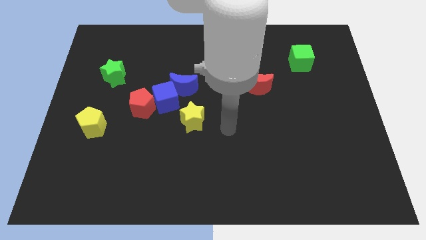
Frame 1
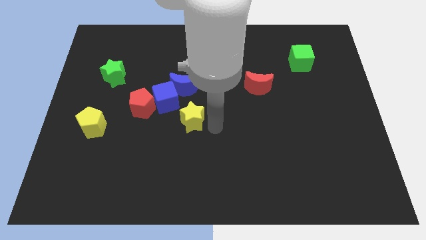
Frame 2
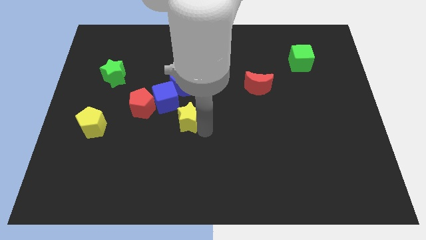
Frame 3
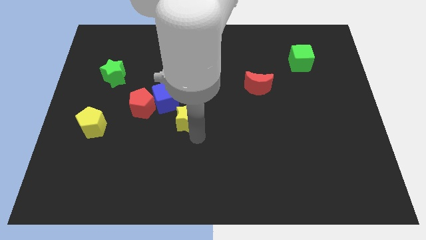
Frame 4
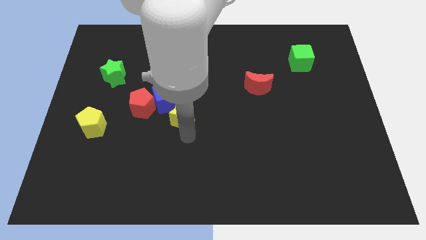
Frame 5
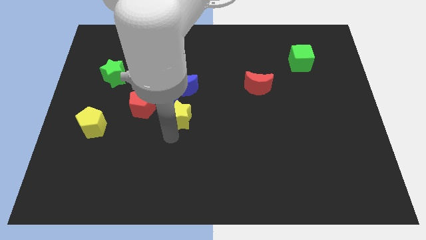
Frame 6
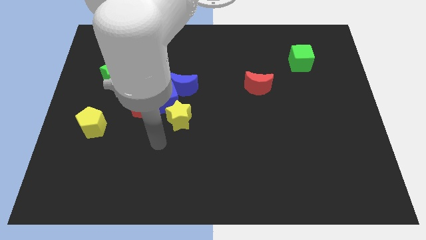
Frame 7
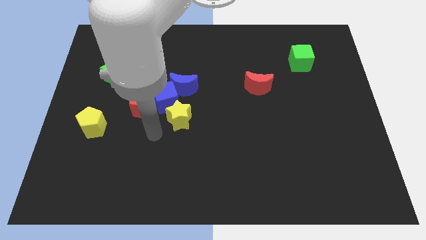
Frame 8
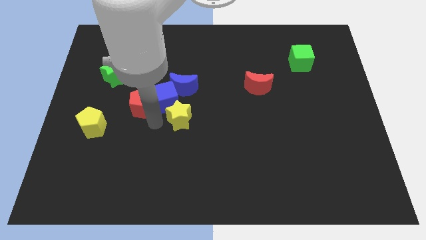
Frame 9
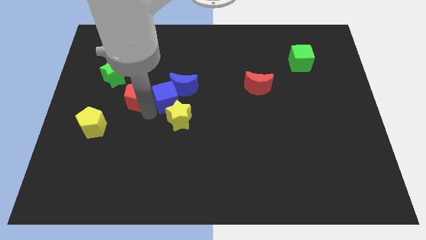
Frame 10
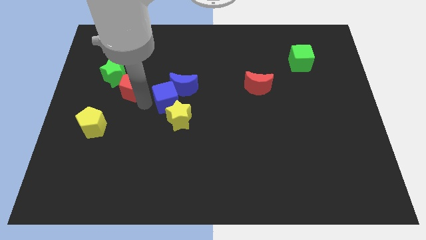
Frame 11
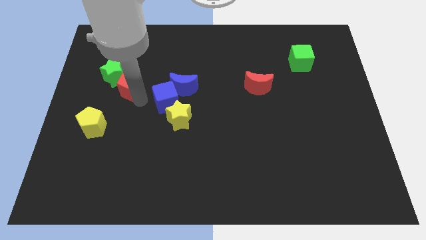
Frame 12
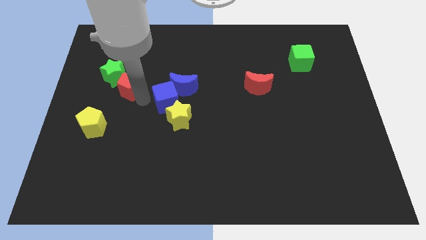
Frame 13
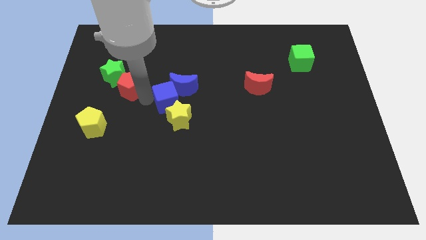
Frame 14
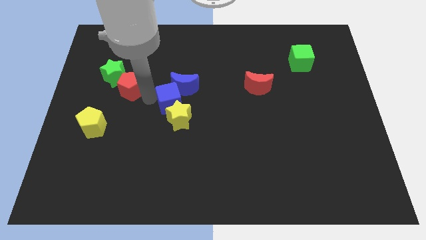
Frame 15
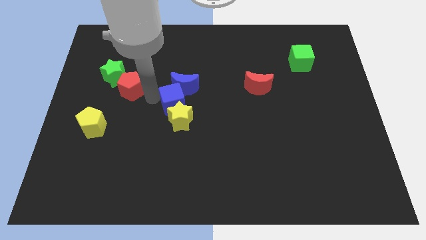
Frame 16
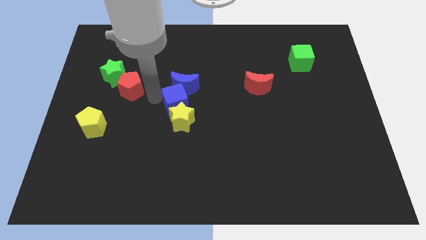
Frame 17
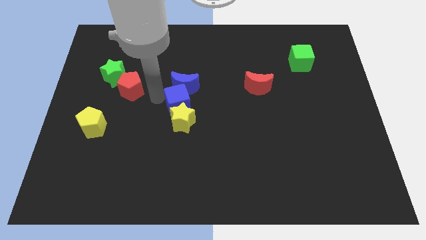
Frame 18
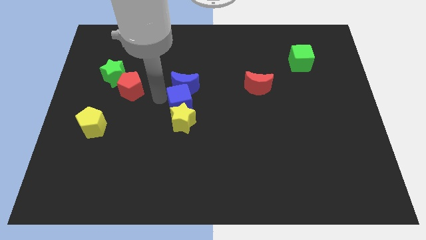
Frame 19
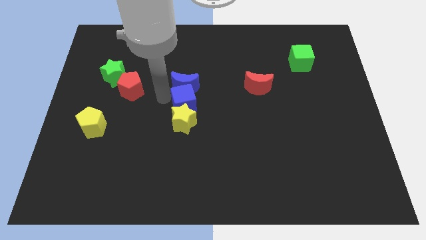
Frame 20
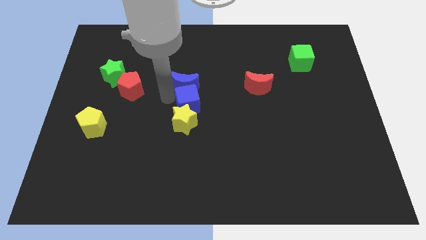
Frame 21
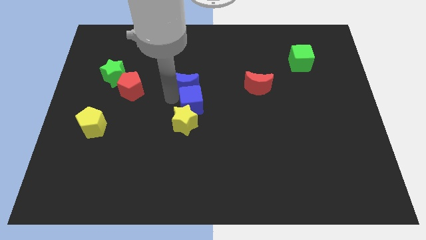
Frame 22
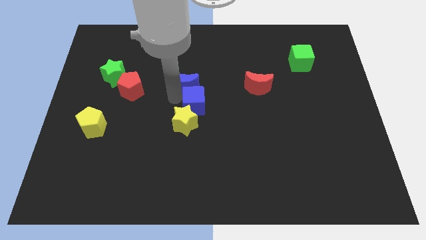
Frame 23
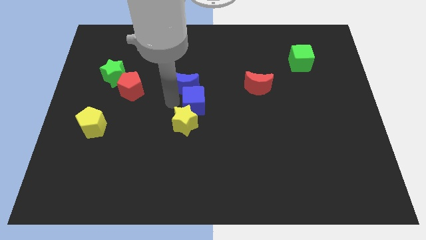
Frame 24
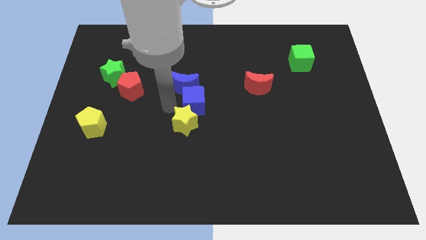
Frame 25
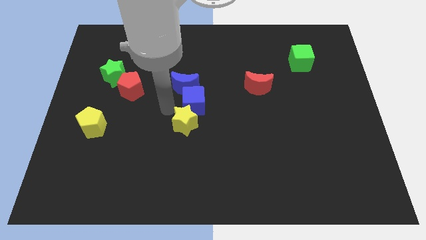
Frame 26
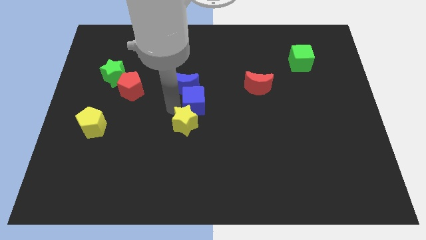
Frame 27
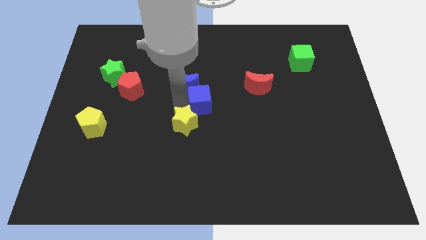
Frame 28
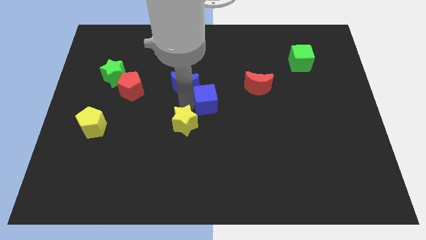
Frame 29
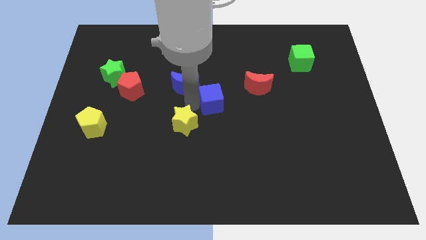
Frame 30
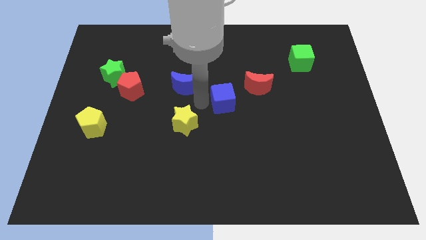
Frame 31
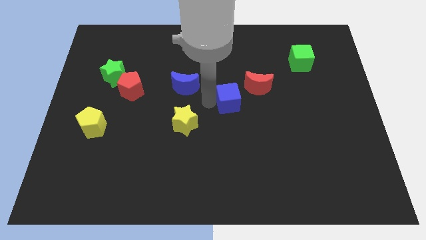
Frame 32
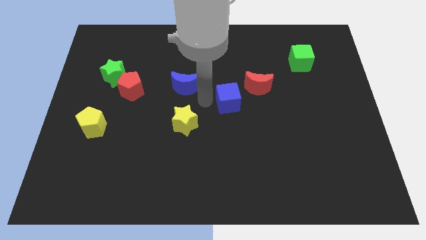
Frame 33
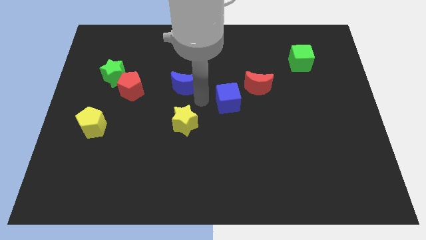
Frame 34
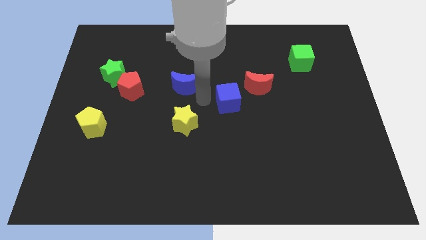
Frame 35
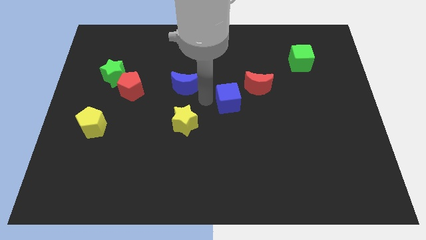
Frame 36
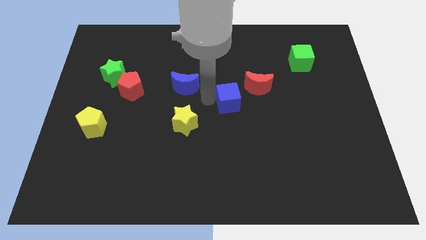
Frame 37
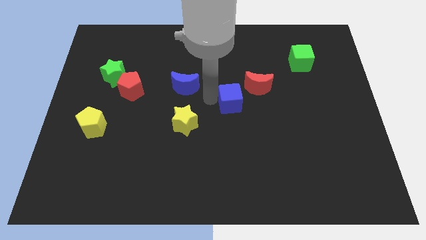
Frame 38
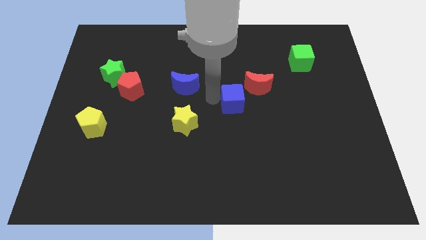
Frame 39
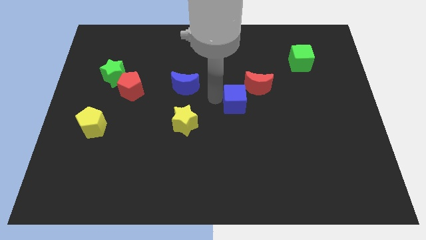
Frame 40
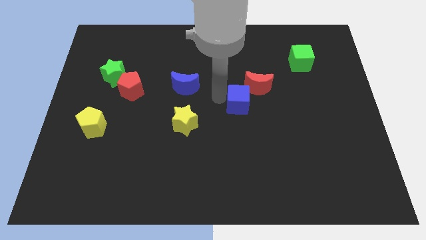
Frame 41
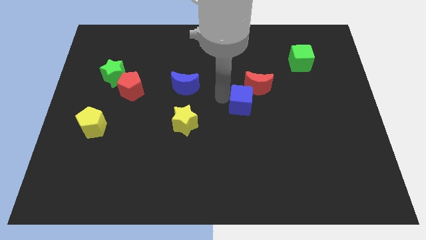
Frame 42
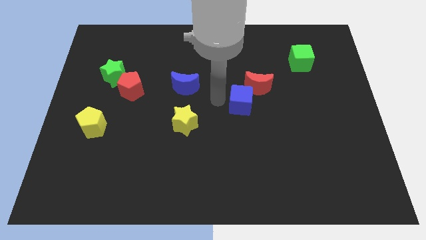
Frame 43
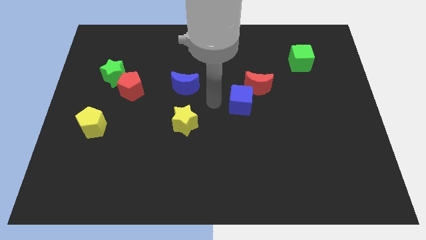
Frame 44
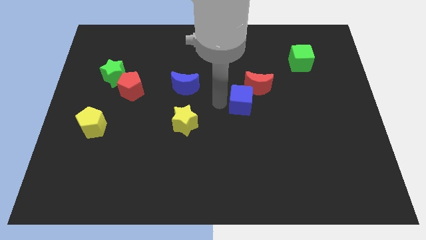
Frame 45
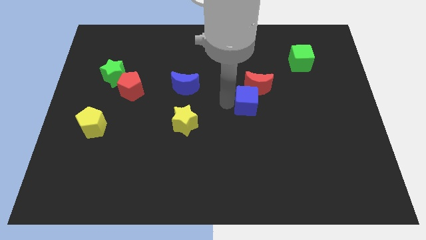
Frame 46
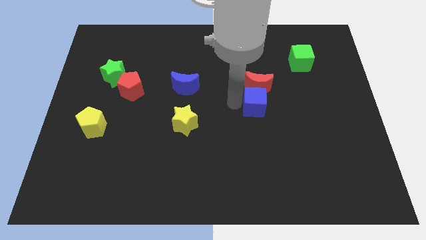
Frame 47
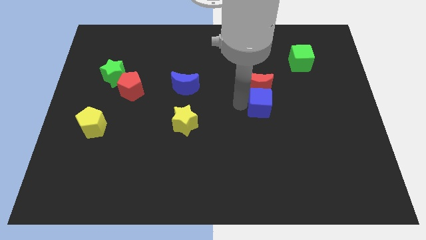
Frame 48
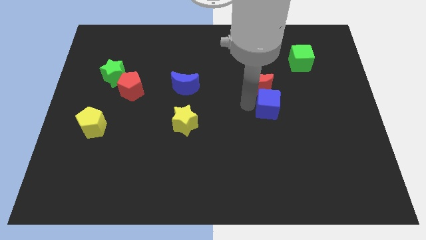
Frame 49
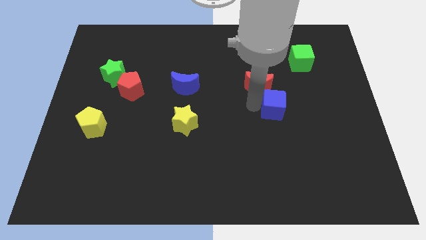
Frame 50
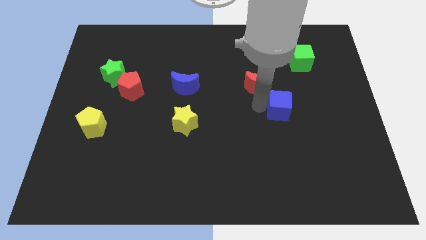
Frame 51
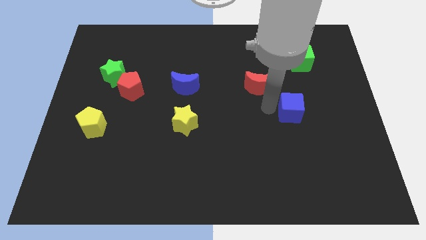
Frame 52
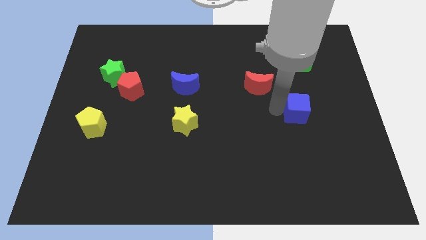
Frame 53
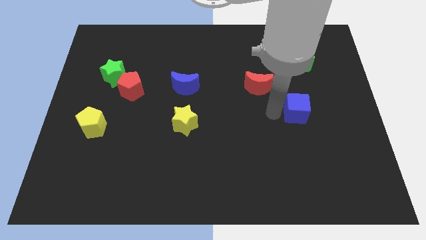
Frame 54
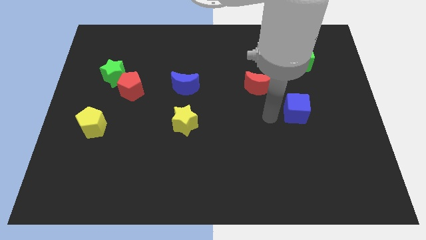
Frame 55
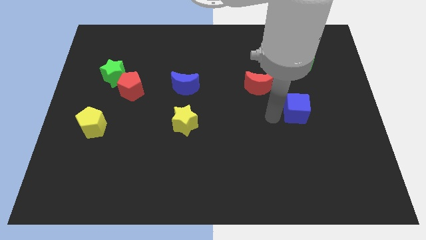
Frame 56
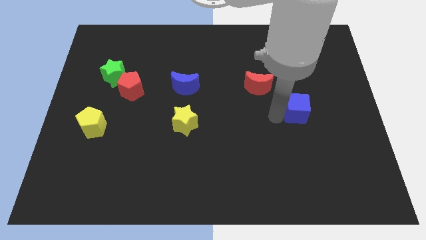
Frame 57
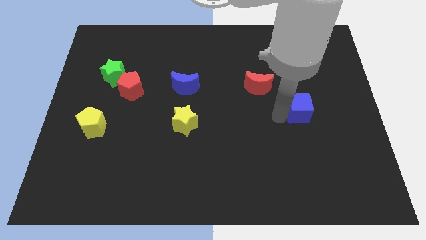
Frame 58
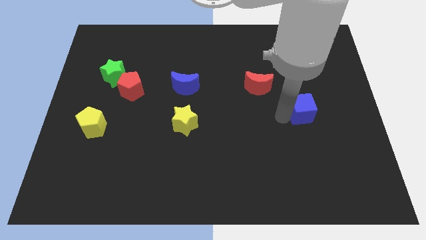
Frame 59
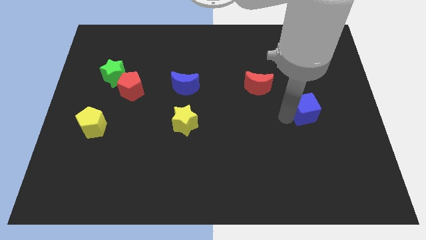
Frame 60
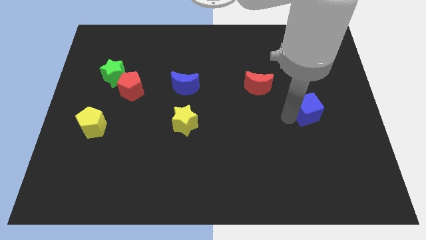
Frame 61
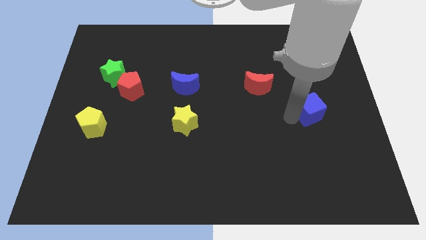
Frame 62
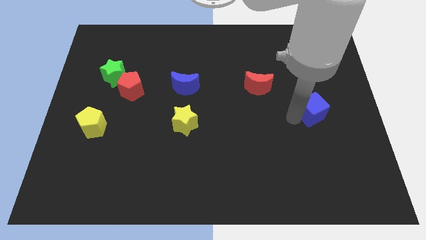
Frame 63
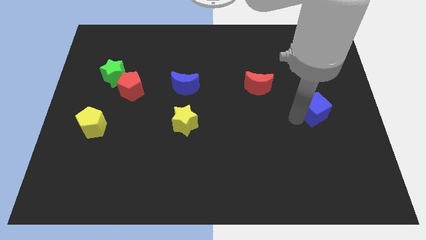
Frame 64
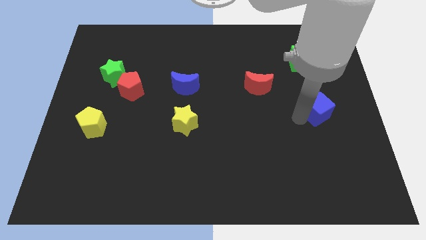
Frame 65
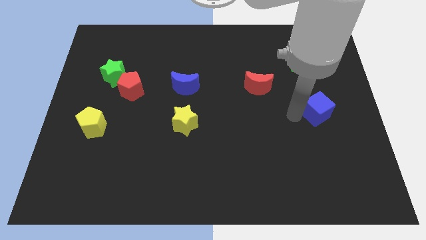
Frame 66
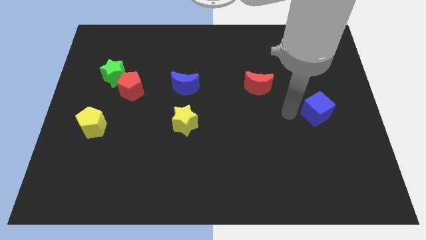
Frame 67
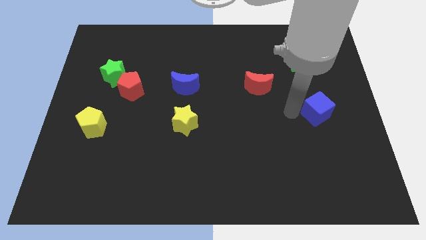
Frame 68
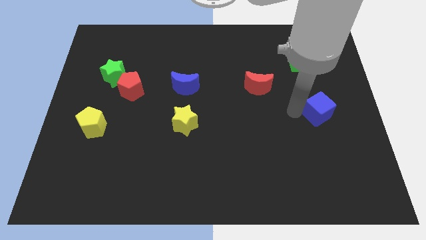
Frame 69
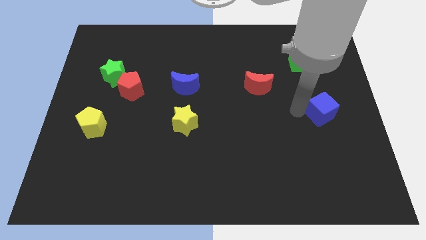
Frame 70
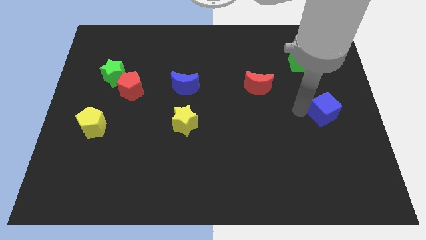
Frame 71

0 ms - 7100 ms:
move the blue cube to the right side of the board
